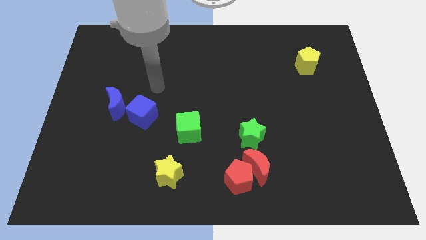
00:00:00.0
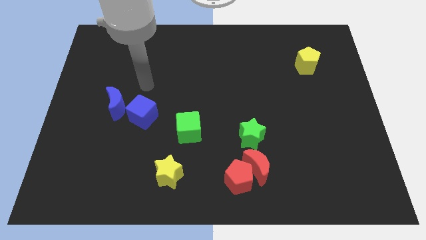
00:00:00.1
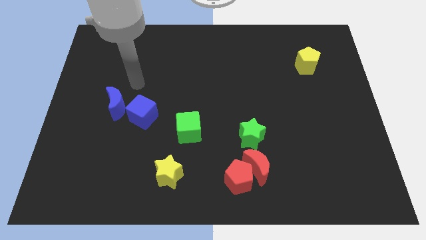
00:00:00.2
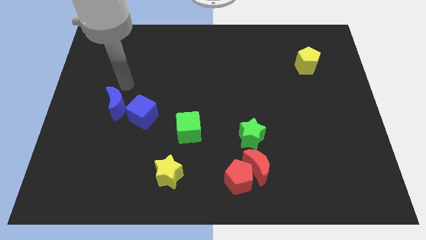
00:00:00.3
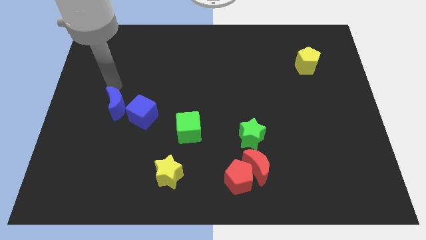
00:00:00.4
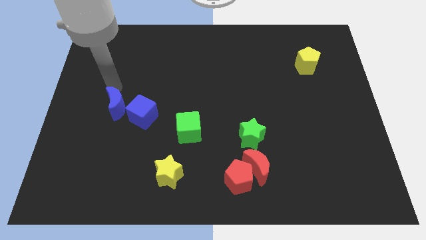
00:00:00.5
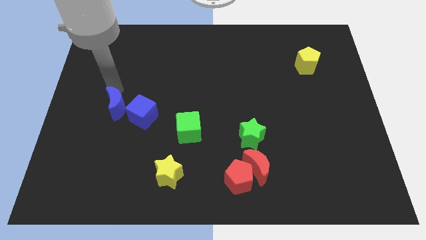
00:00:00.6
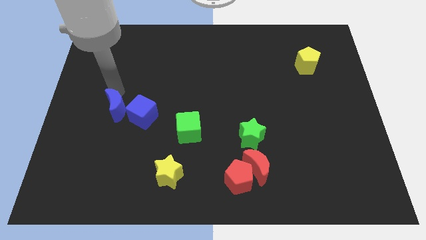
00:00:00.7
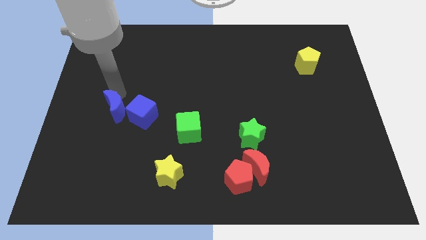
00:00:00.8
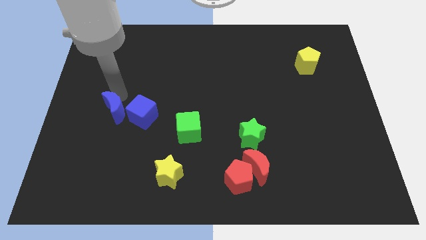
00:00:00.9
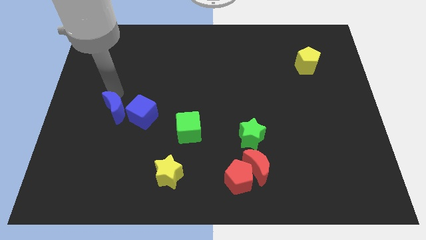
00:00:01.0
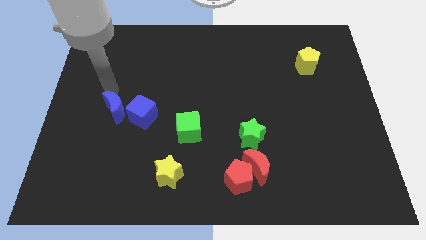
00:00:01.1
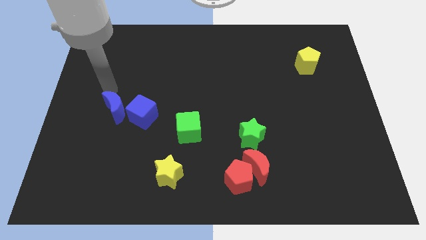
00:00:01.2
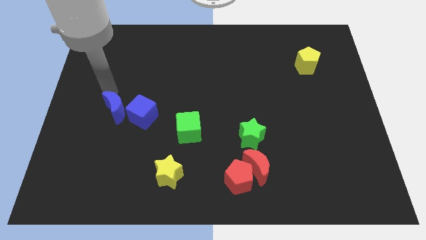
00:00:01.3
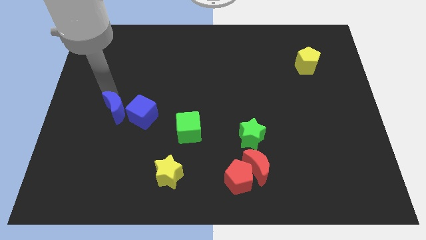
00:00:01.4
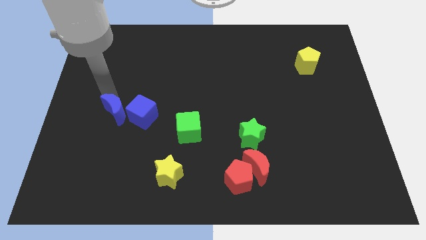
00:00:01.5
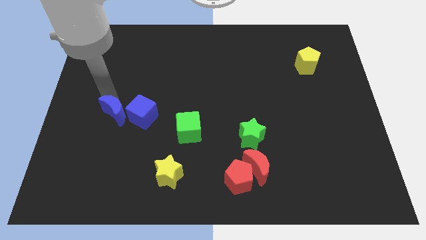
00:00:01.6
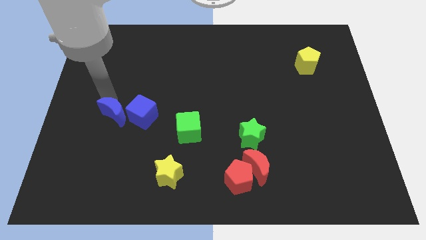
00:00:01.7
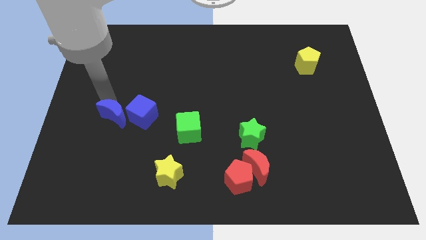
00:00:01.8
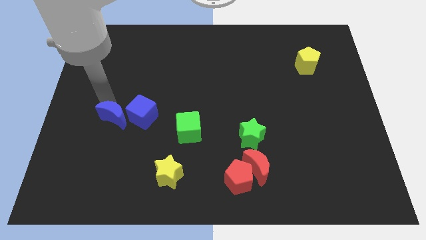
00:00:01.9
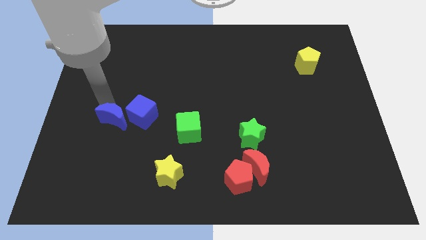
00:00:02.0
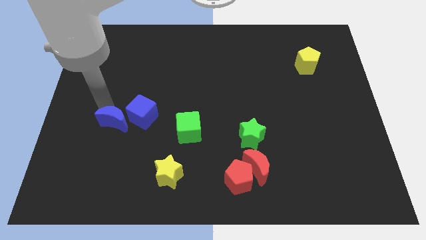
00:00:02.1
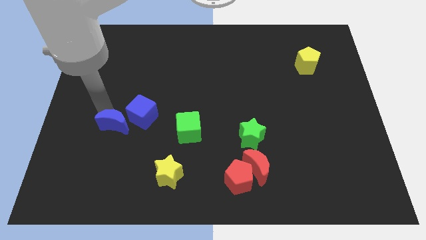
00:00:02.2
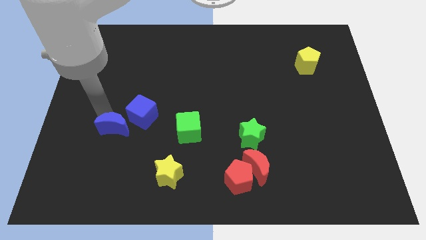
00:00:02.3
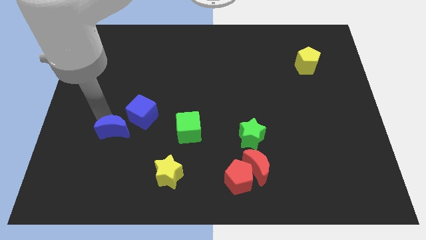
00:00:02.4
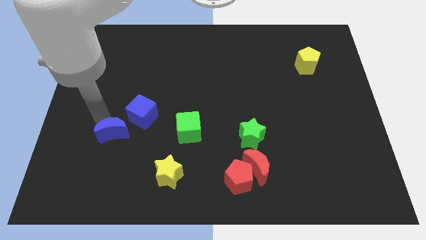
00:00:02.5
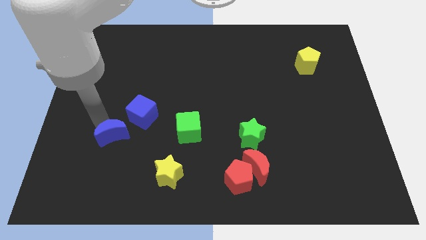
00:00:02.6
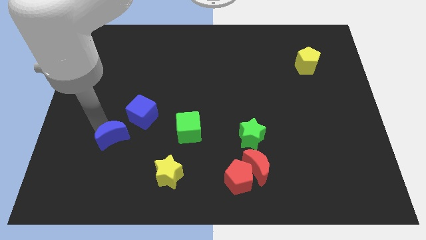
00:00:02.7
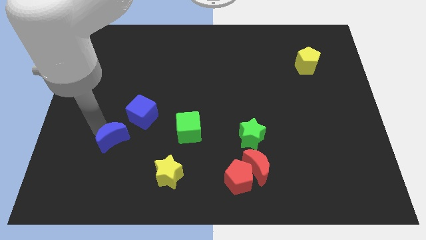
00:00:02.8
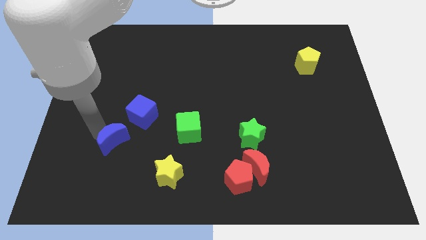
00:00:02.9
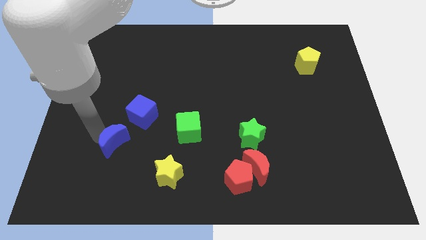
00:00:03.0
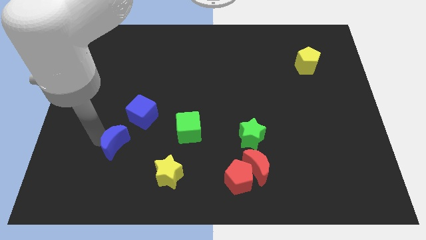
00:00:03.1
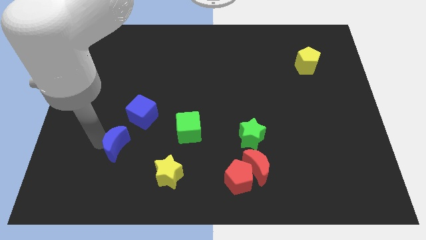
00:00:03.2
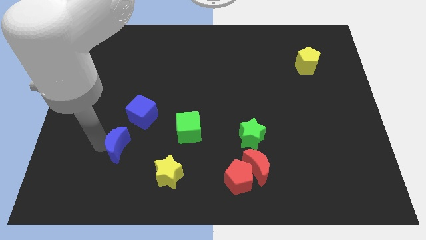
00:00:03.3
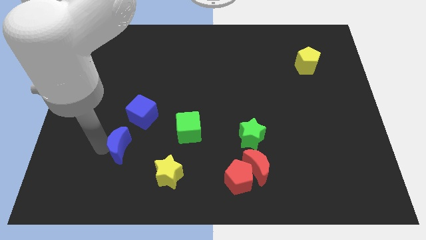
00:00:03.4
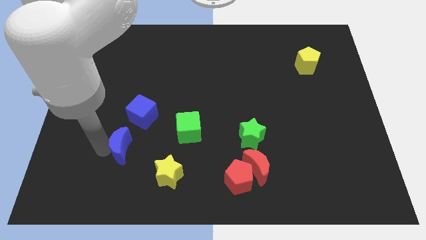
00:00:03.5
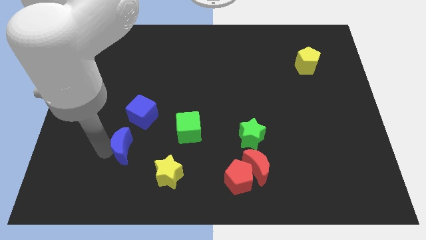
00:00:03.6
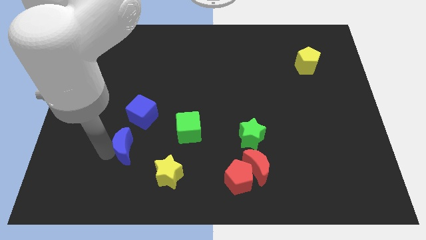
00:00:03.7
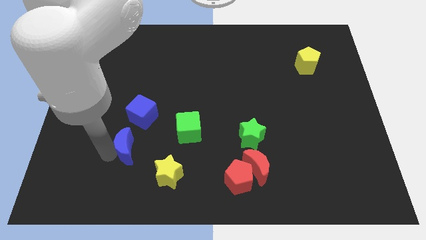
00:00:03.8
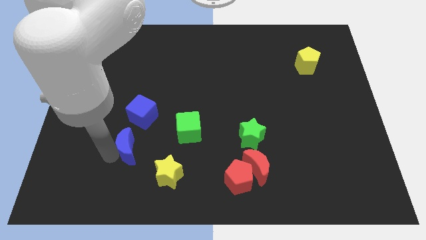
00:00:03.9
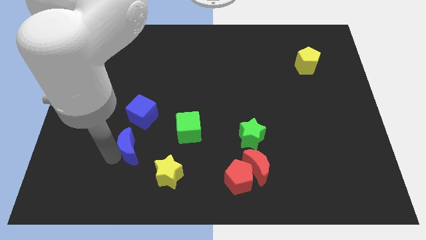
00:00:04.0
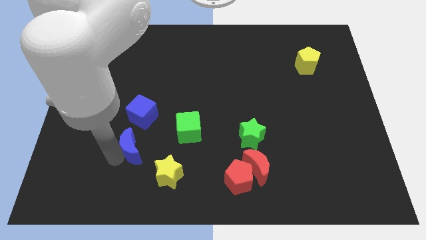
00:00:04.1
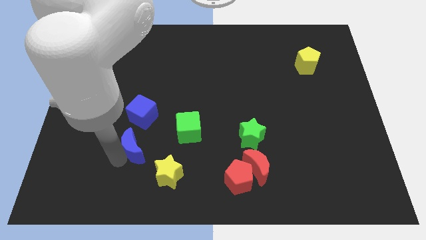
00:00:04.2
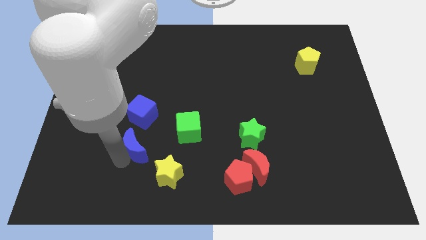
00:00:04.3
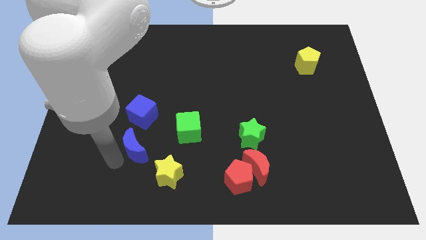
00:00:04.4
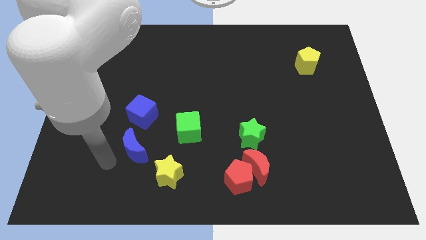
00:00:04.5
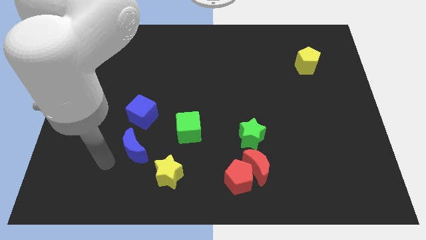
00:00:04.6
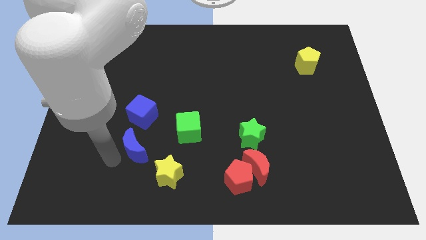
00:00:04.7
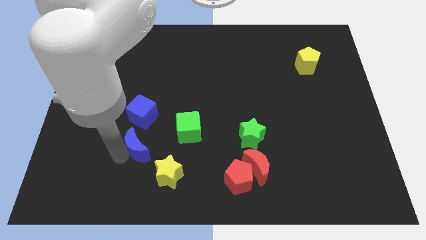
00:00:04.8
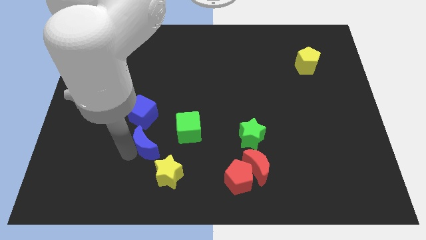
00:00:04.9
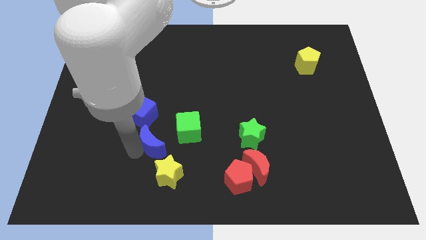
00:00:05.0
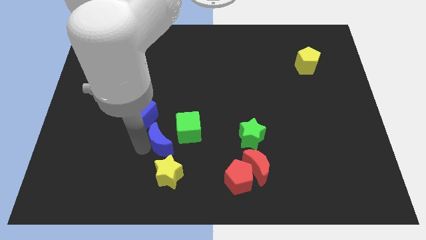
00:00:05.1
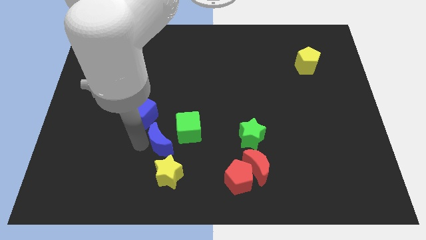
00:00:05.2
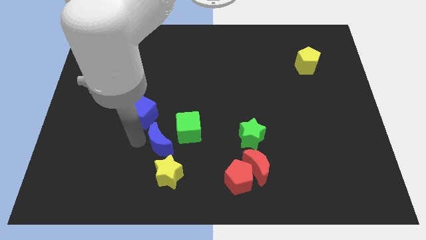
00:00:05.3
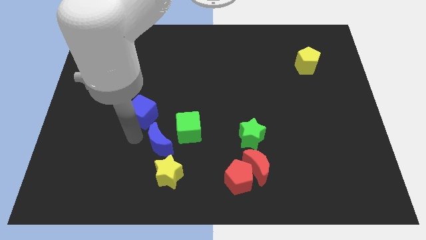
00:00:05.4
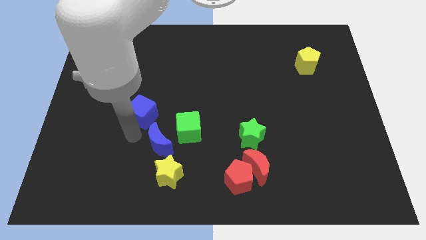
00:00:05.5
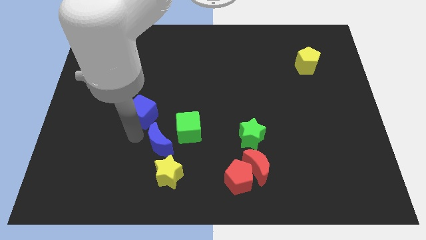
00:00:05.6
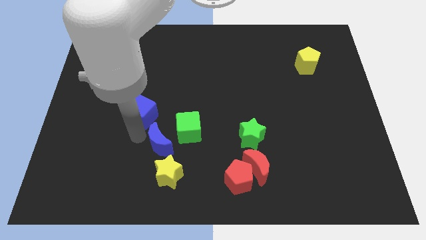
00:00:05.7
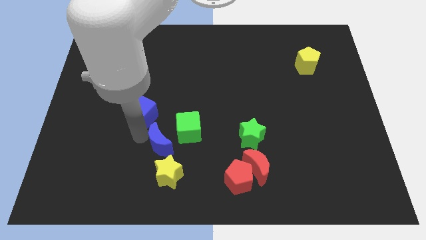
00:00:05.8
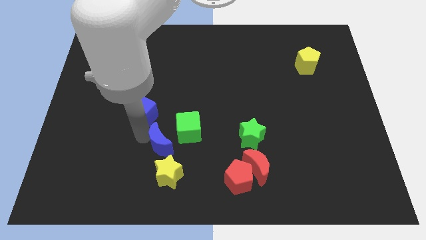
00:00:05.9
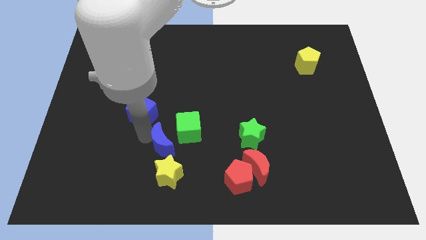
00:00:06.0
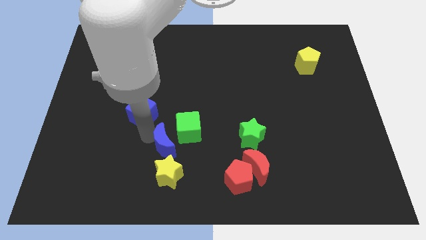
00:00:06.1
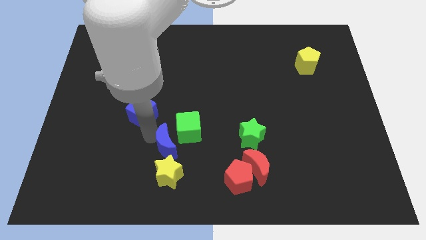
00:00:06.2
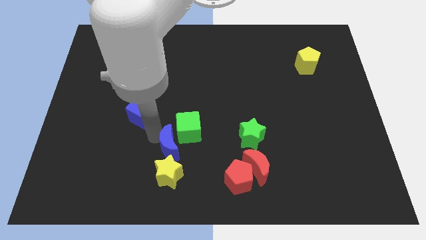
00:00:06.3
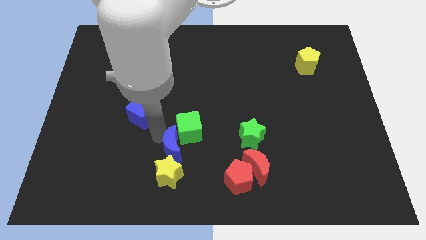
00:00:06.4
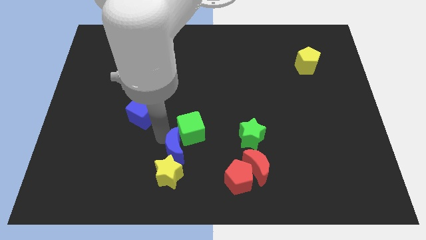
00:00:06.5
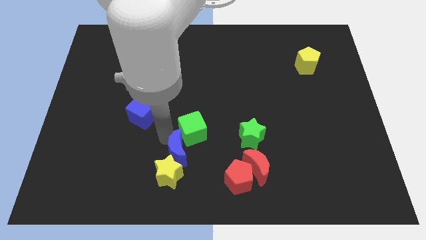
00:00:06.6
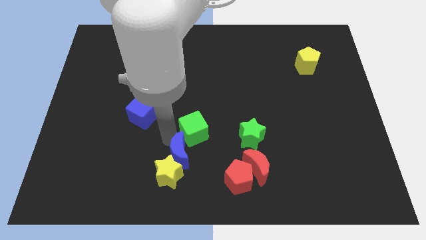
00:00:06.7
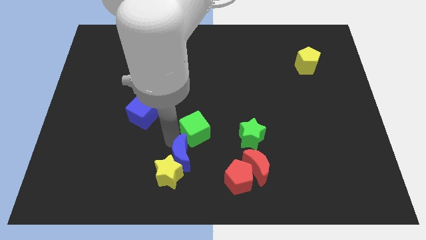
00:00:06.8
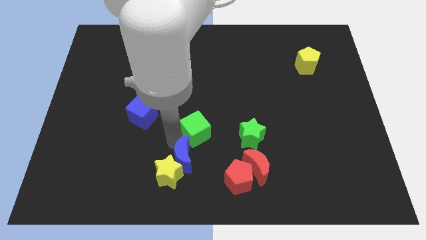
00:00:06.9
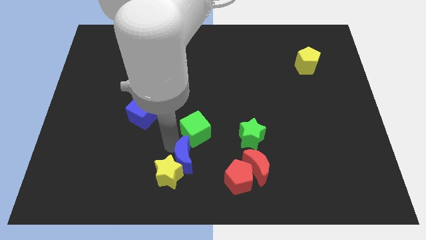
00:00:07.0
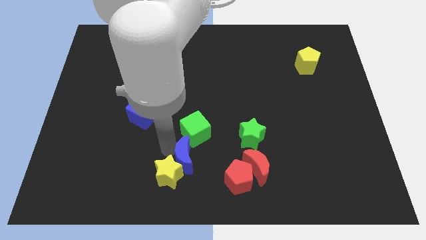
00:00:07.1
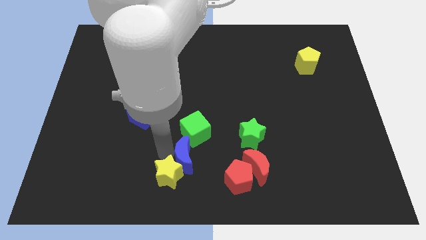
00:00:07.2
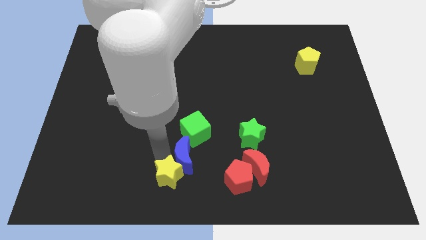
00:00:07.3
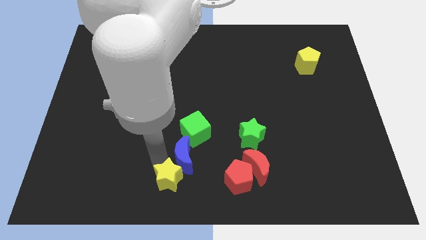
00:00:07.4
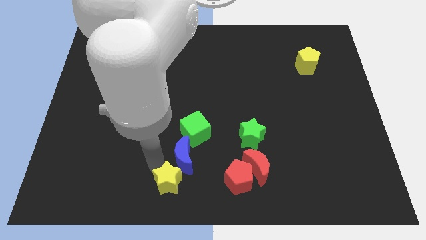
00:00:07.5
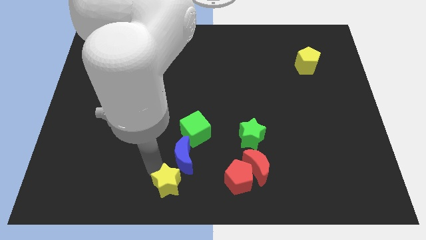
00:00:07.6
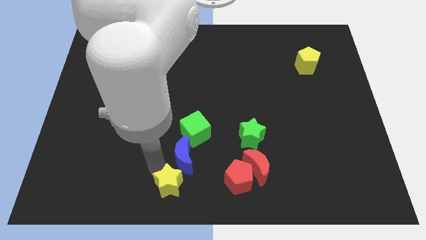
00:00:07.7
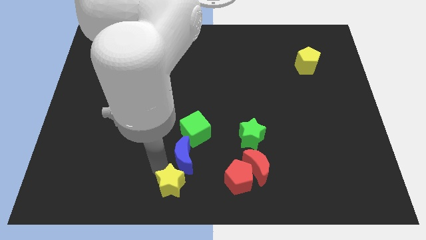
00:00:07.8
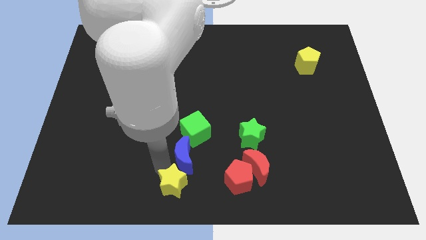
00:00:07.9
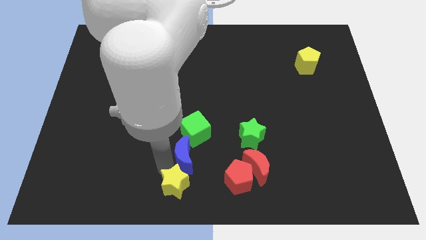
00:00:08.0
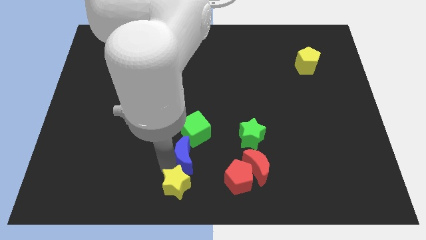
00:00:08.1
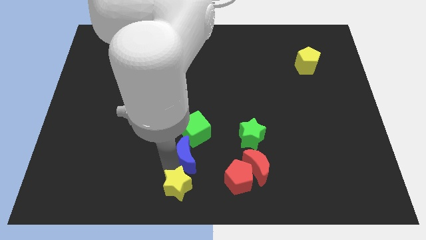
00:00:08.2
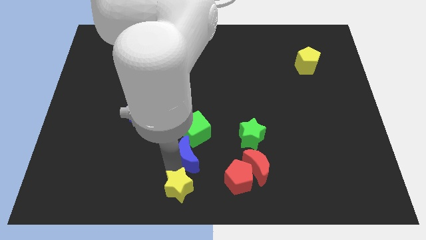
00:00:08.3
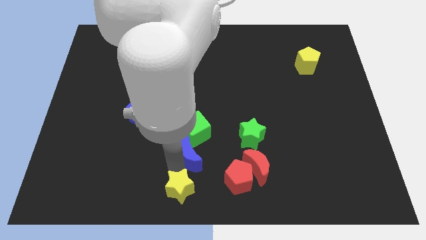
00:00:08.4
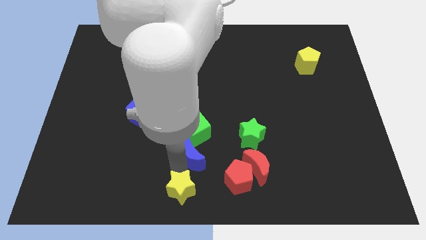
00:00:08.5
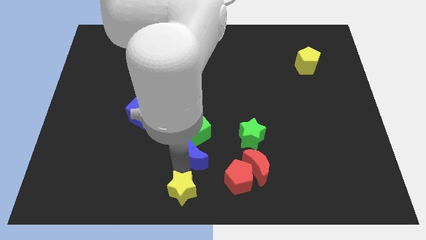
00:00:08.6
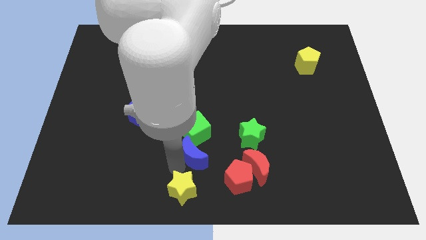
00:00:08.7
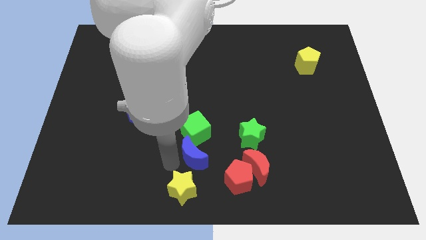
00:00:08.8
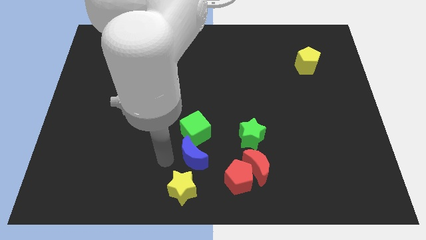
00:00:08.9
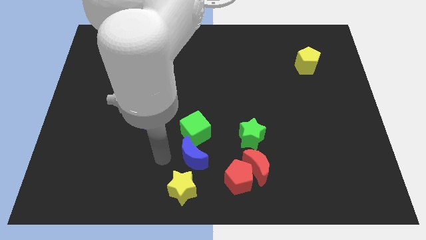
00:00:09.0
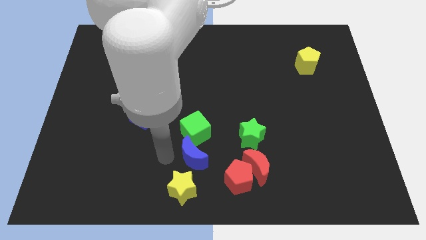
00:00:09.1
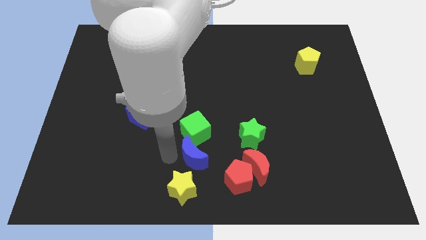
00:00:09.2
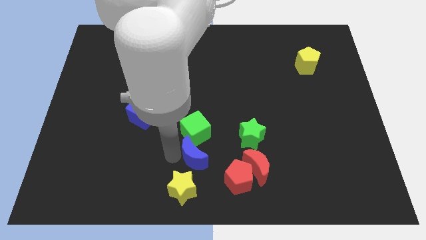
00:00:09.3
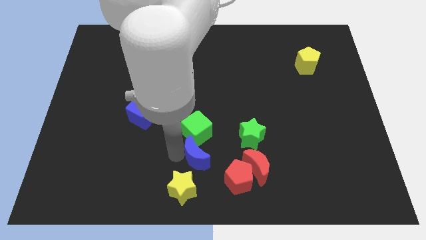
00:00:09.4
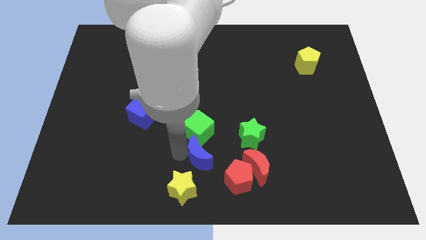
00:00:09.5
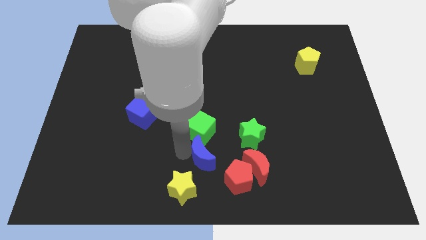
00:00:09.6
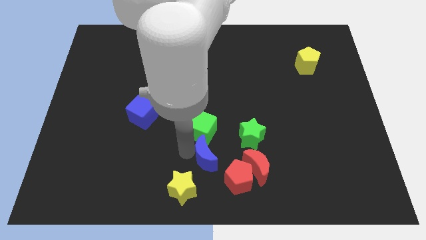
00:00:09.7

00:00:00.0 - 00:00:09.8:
put the blue moon diagonally down and to the left of the green star
